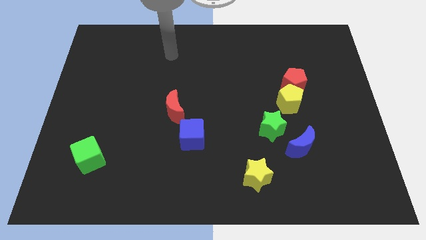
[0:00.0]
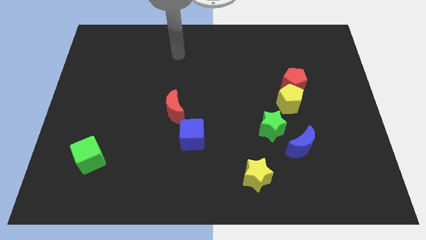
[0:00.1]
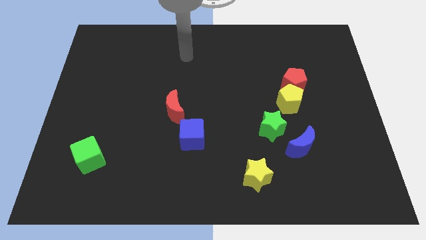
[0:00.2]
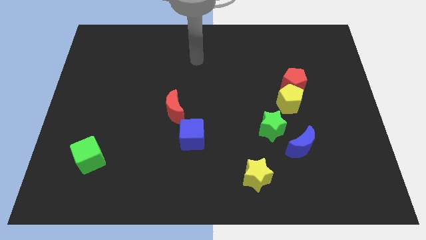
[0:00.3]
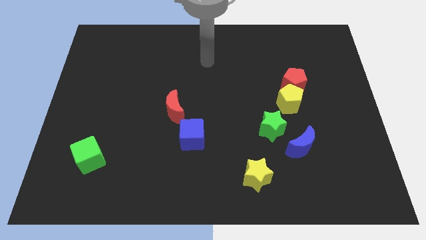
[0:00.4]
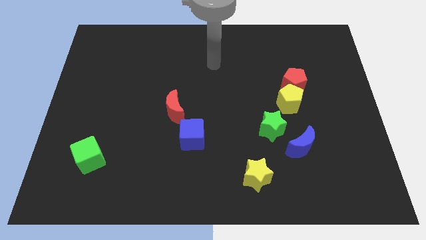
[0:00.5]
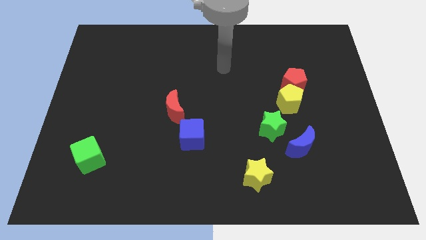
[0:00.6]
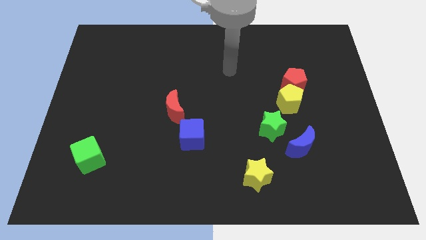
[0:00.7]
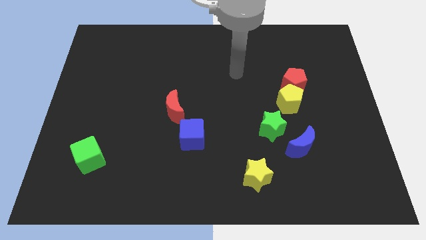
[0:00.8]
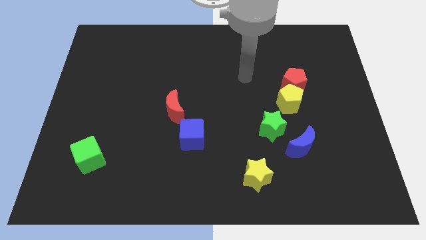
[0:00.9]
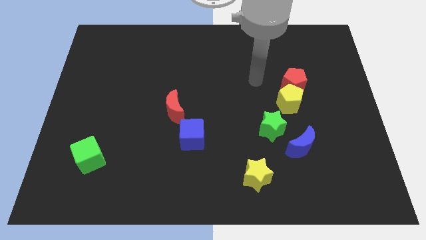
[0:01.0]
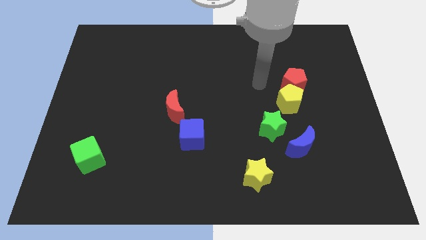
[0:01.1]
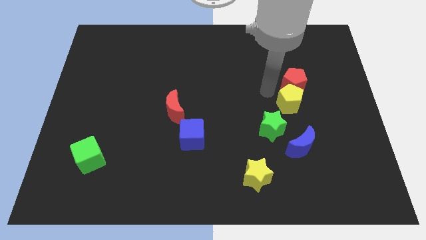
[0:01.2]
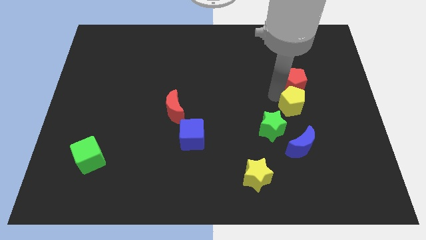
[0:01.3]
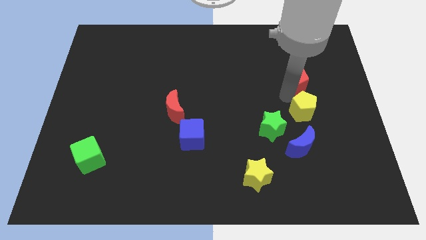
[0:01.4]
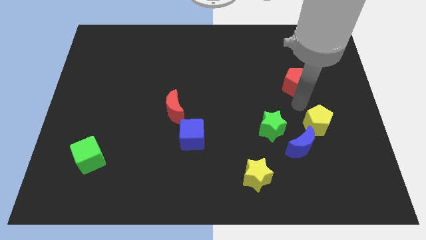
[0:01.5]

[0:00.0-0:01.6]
move the red pentagon away from the yellow pentagon

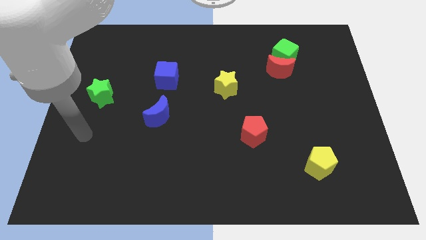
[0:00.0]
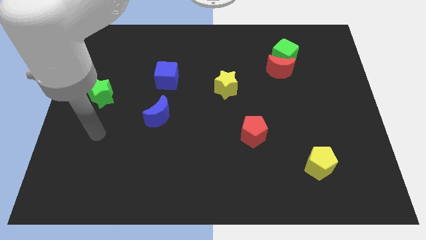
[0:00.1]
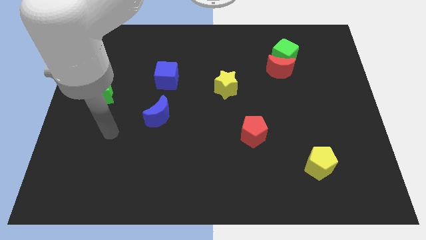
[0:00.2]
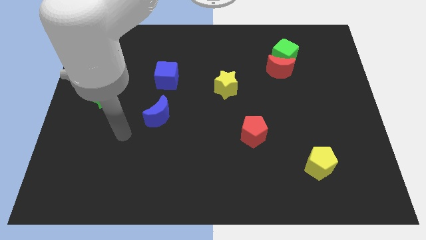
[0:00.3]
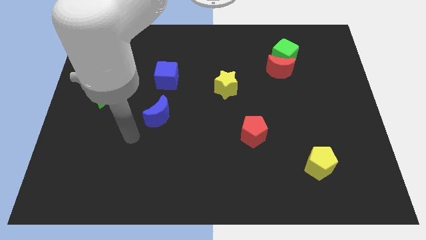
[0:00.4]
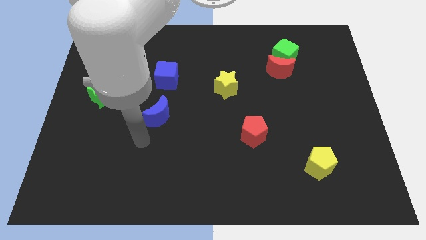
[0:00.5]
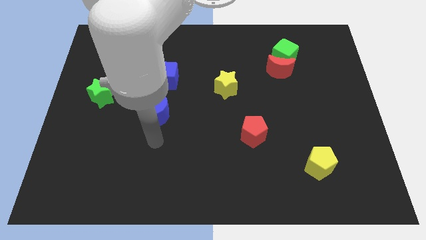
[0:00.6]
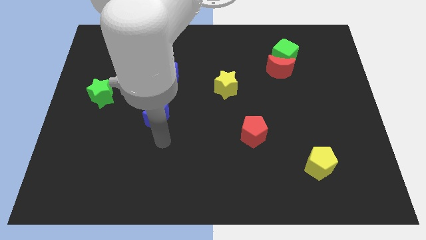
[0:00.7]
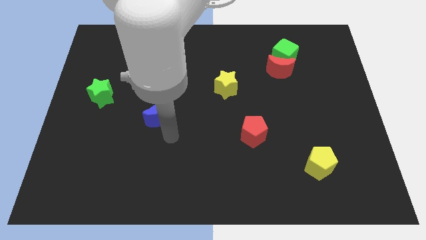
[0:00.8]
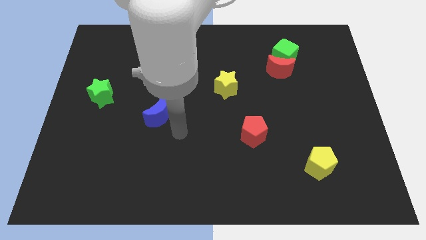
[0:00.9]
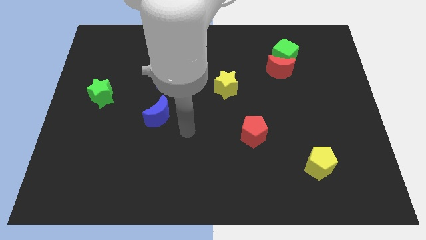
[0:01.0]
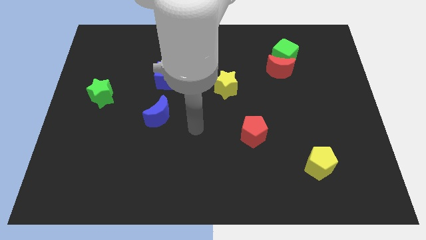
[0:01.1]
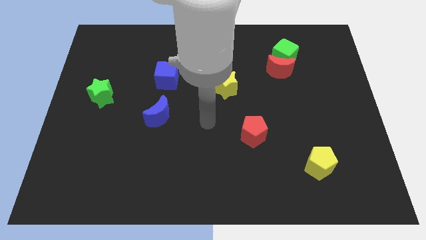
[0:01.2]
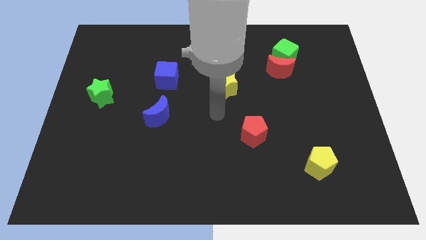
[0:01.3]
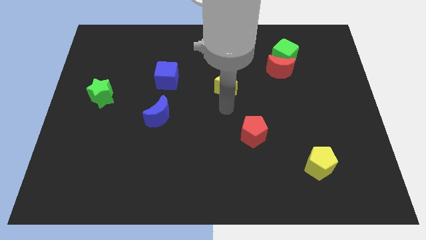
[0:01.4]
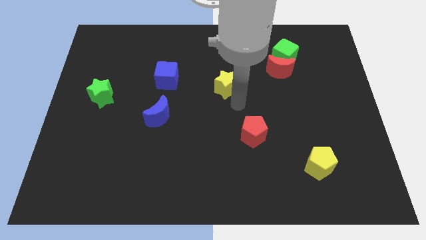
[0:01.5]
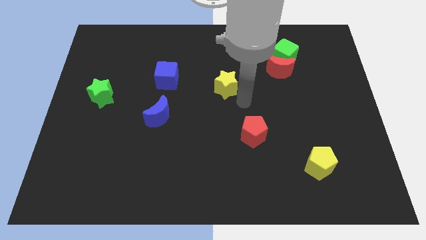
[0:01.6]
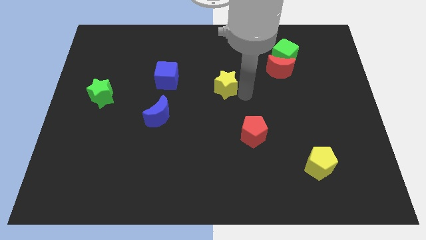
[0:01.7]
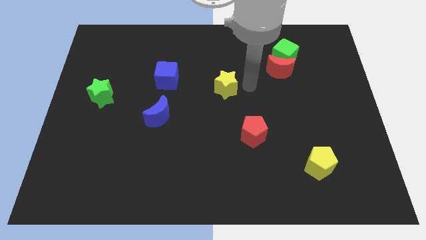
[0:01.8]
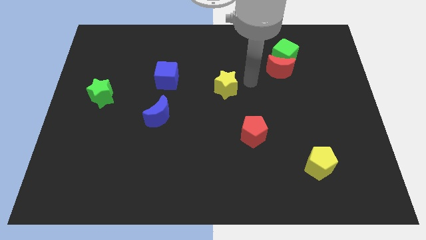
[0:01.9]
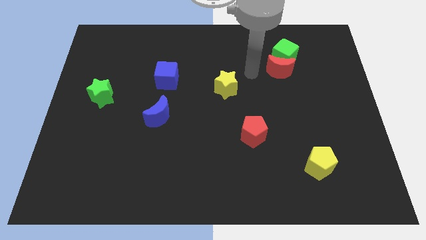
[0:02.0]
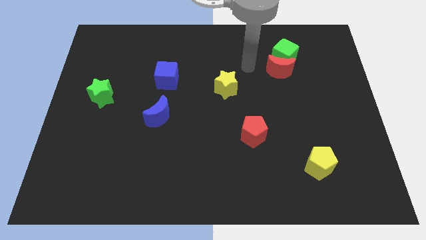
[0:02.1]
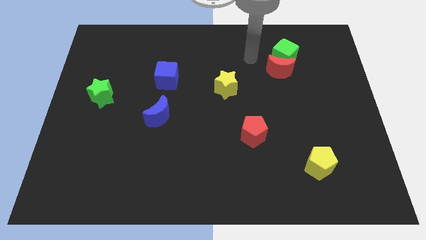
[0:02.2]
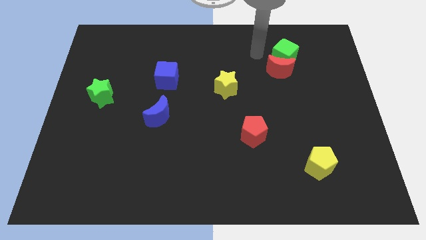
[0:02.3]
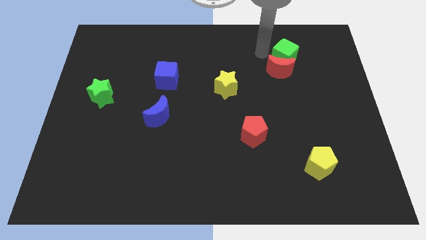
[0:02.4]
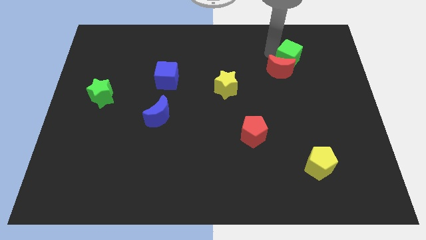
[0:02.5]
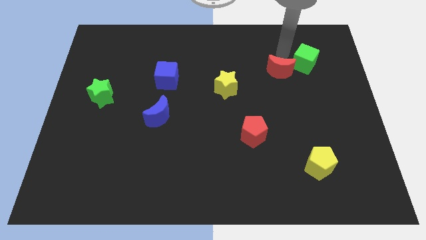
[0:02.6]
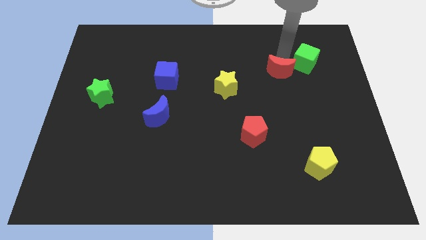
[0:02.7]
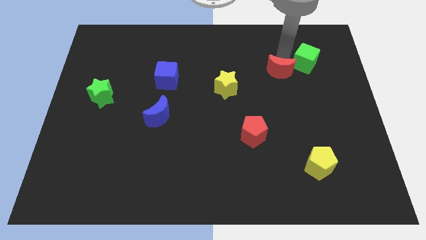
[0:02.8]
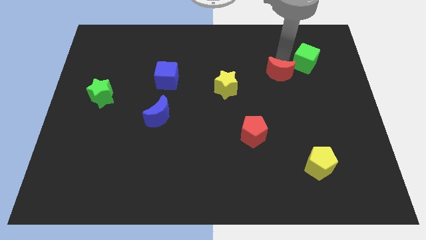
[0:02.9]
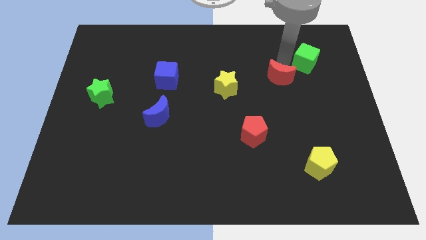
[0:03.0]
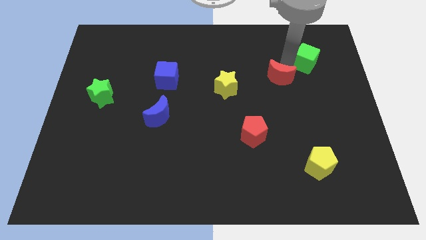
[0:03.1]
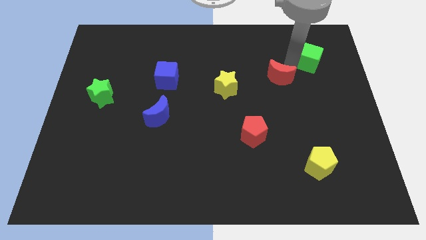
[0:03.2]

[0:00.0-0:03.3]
separate the red moon from the green cube

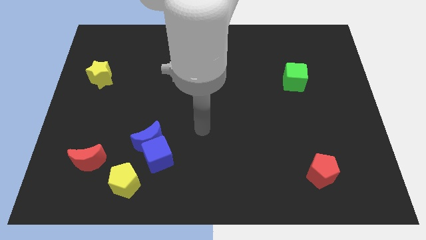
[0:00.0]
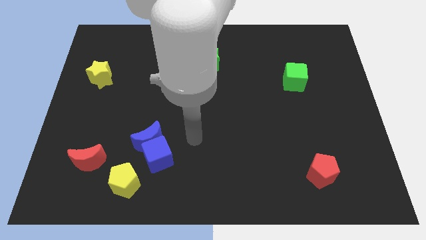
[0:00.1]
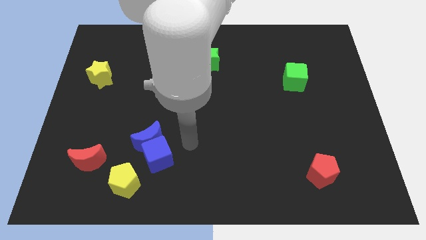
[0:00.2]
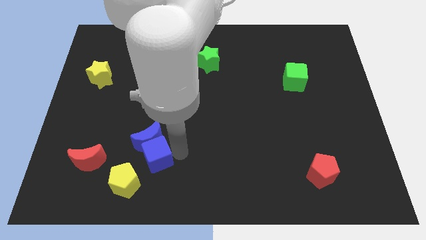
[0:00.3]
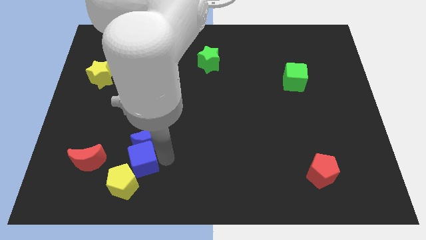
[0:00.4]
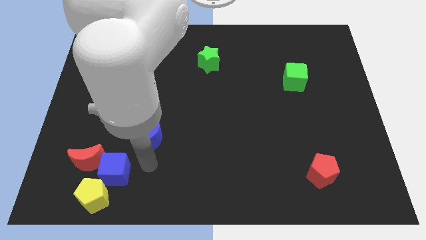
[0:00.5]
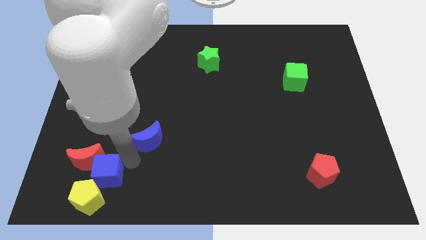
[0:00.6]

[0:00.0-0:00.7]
pull the blue moon apart from the blue cube

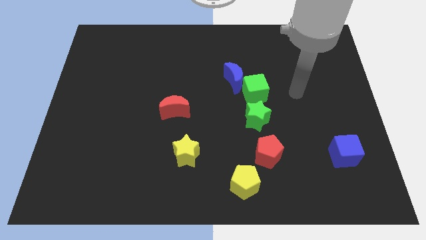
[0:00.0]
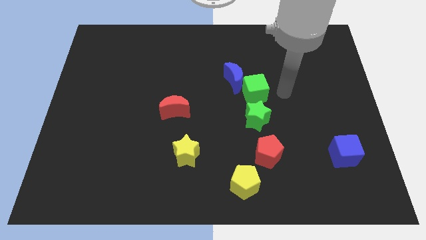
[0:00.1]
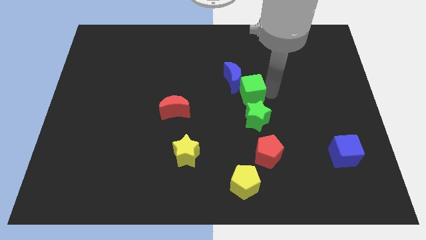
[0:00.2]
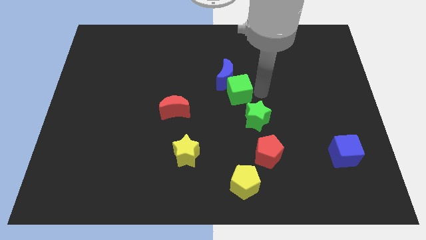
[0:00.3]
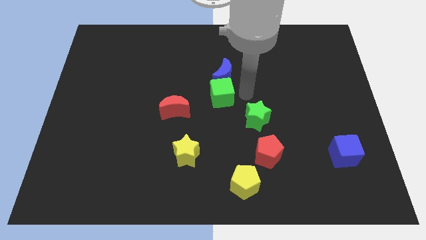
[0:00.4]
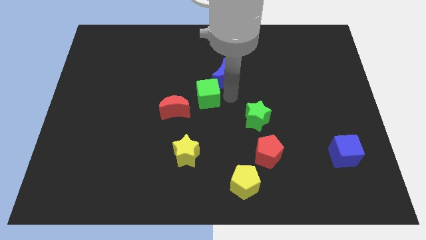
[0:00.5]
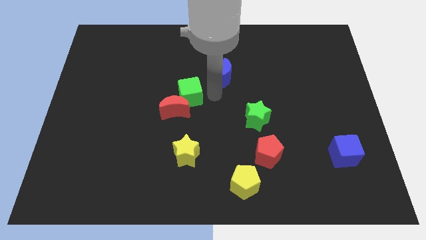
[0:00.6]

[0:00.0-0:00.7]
move the blue moon away from the green cube

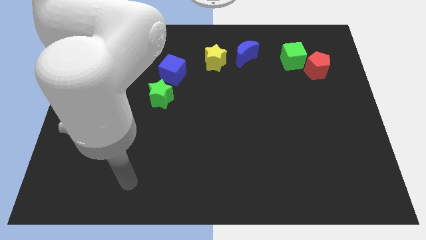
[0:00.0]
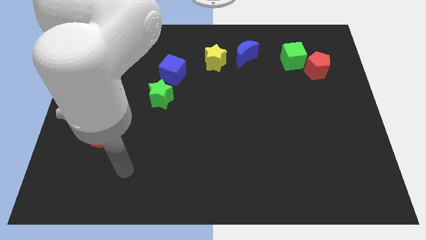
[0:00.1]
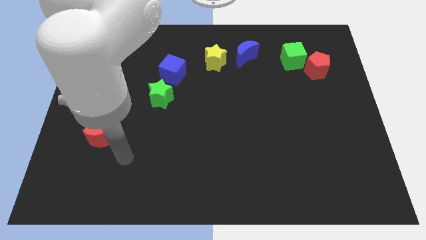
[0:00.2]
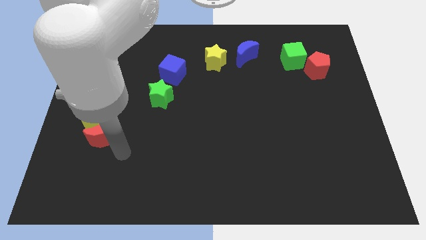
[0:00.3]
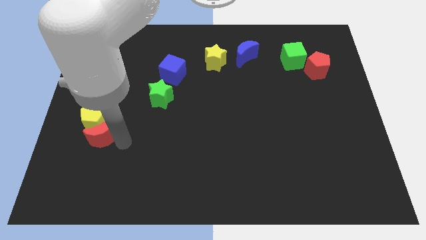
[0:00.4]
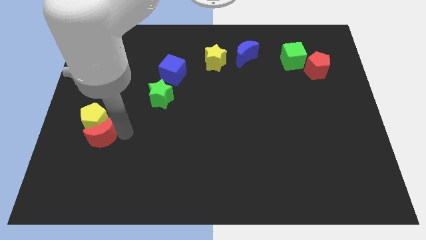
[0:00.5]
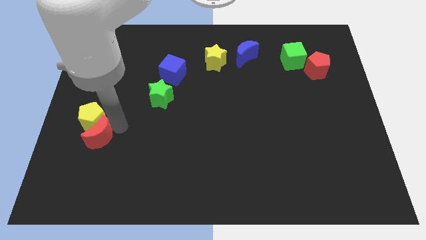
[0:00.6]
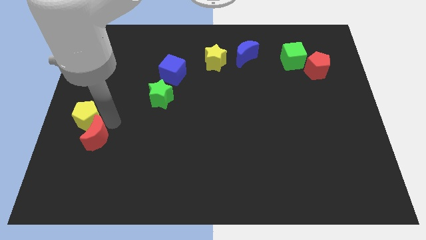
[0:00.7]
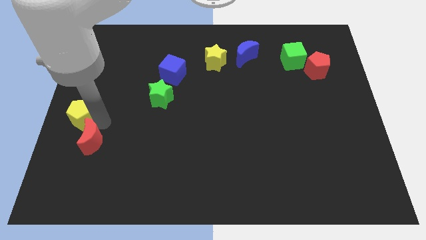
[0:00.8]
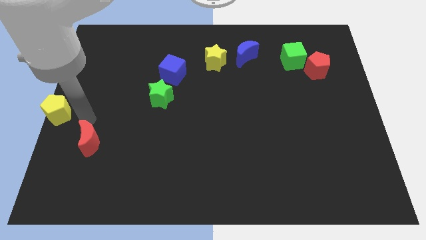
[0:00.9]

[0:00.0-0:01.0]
pull the red moon apart from the yellow pentagon

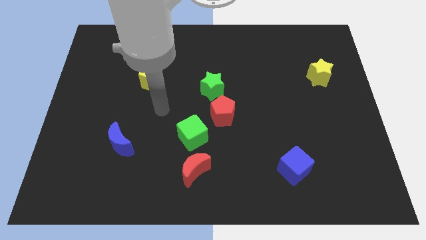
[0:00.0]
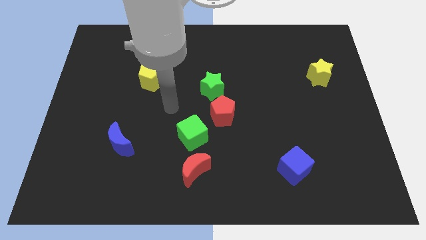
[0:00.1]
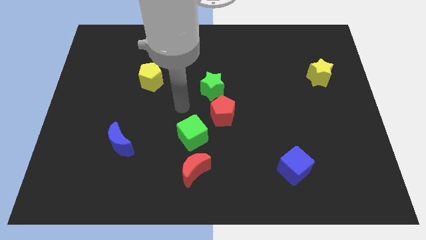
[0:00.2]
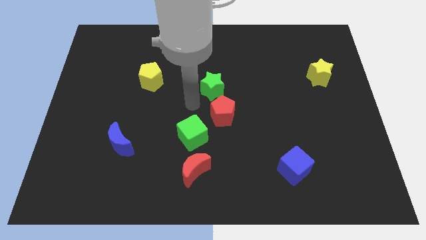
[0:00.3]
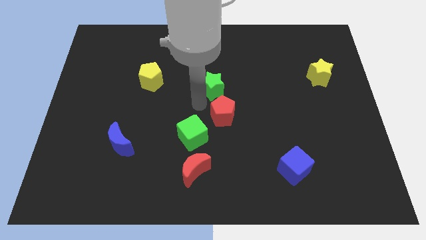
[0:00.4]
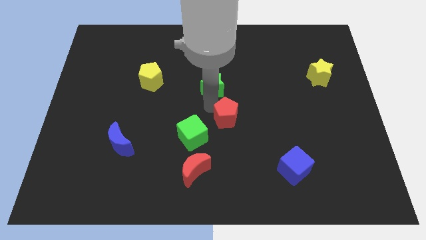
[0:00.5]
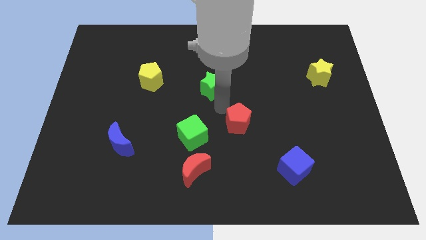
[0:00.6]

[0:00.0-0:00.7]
move the green star away from the red pentagon

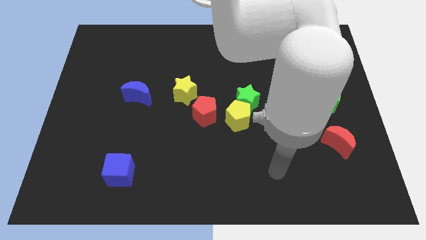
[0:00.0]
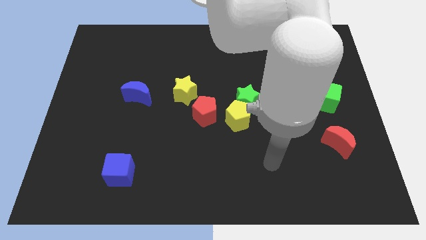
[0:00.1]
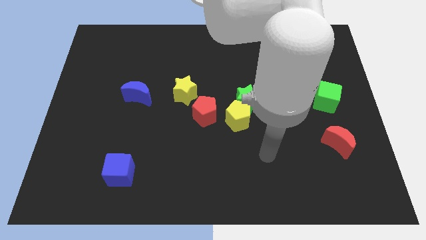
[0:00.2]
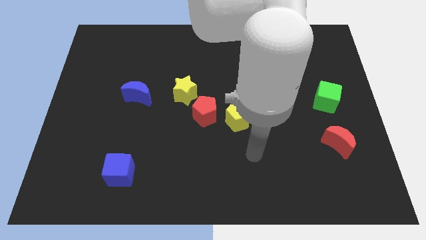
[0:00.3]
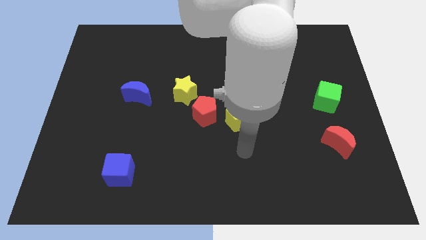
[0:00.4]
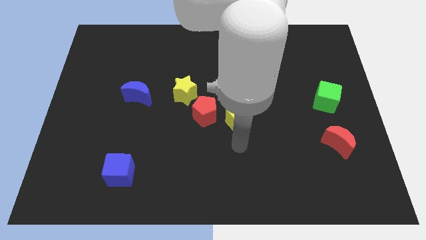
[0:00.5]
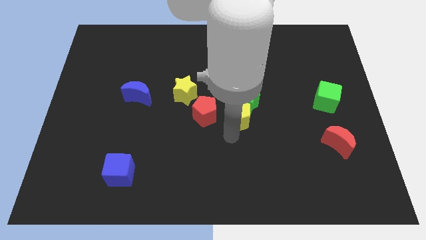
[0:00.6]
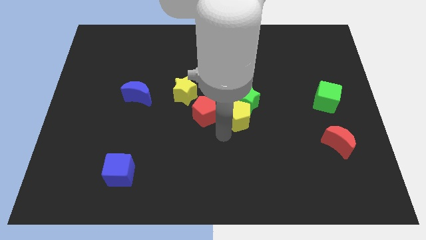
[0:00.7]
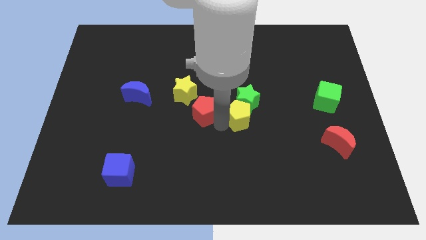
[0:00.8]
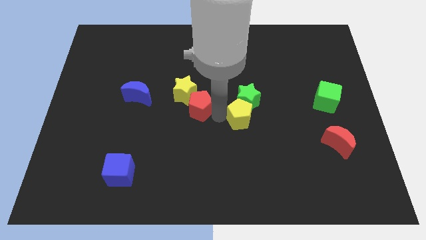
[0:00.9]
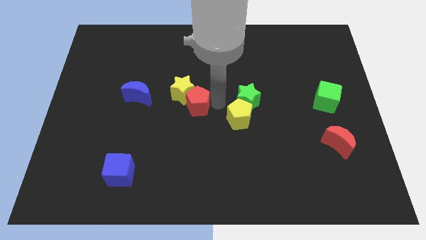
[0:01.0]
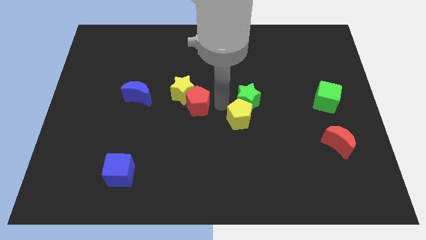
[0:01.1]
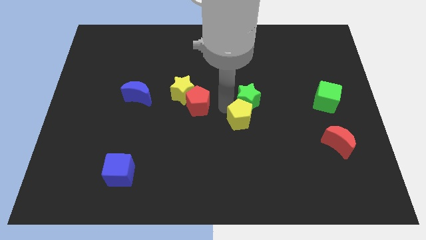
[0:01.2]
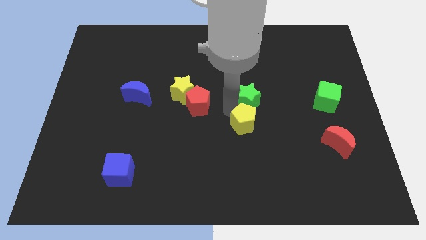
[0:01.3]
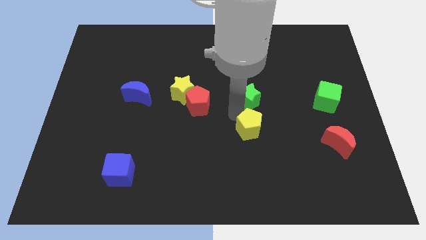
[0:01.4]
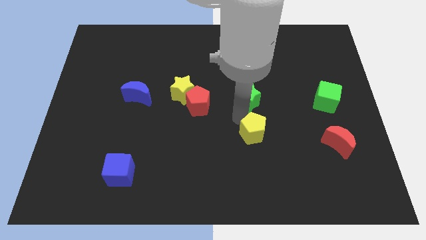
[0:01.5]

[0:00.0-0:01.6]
pull the yellow pentagon apart from the green star and red pentagon
